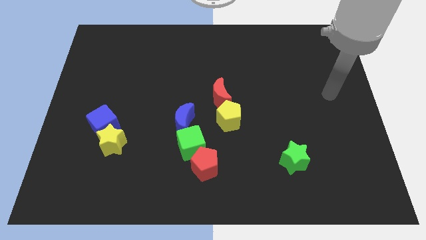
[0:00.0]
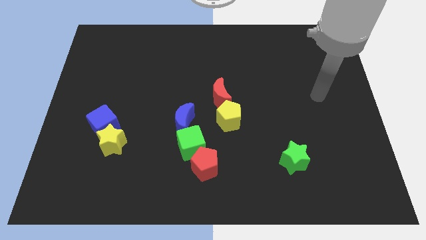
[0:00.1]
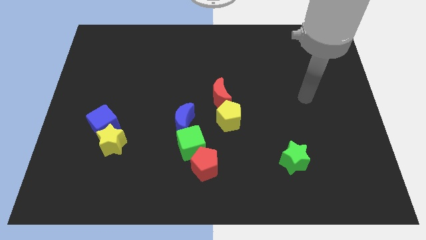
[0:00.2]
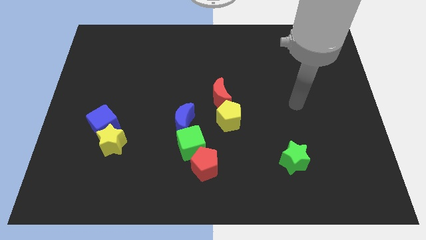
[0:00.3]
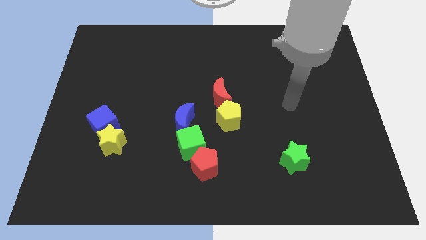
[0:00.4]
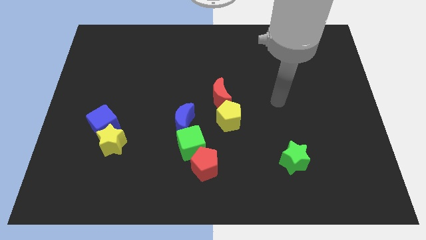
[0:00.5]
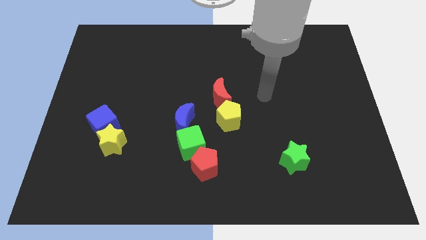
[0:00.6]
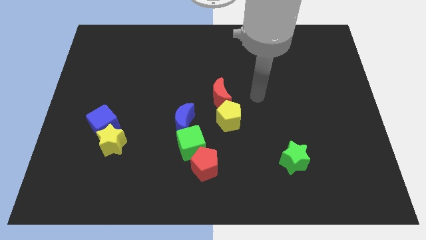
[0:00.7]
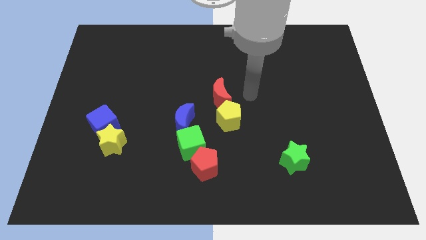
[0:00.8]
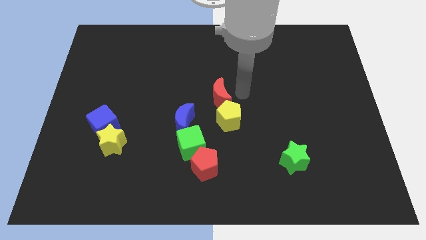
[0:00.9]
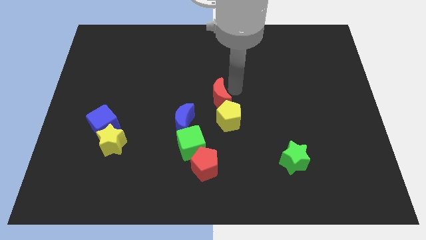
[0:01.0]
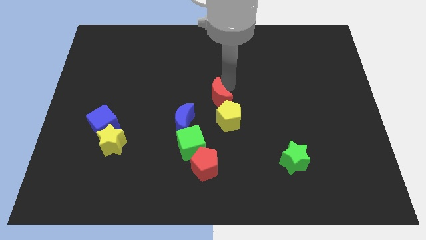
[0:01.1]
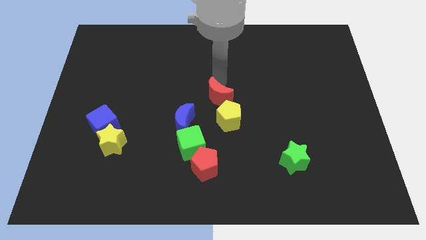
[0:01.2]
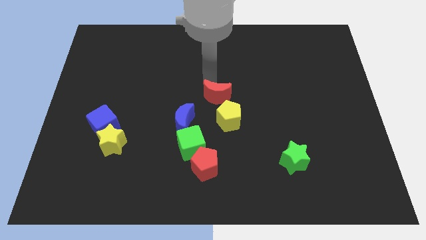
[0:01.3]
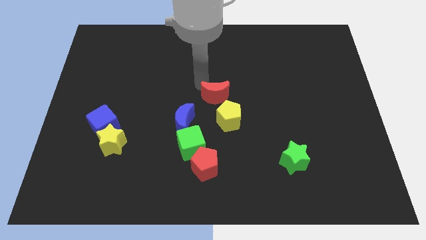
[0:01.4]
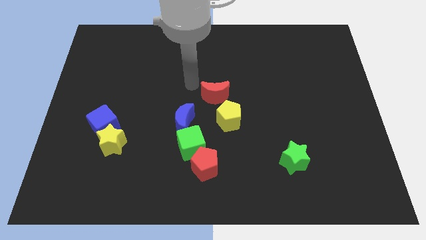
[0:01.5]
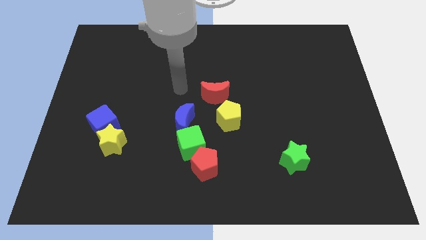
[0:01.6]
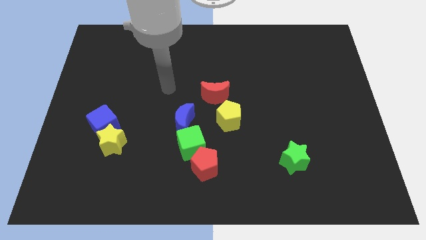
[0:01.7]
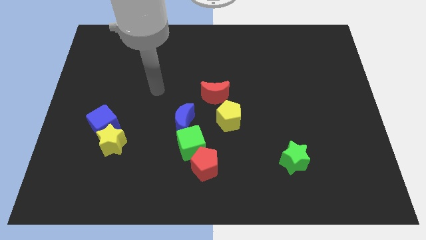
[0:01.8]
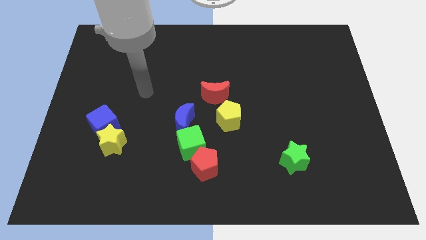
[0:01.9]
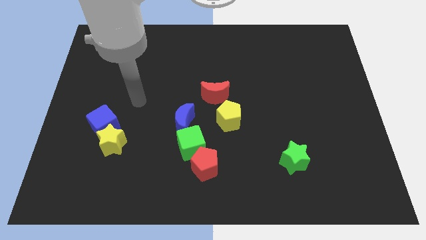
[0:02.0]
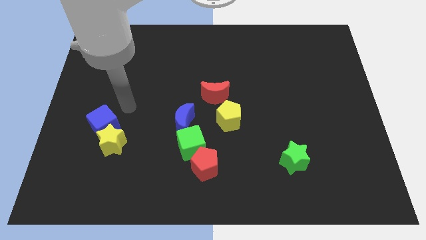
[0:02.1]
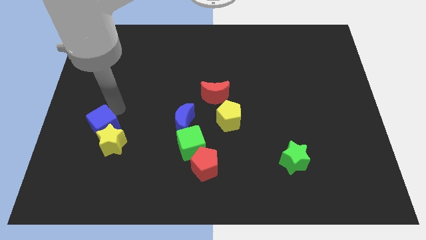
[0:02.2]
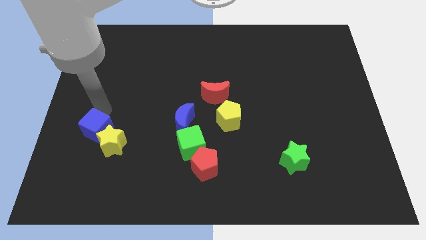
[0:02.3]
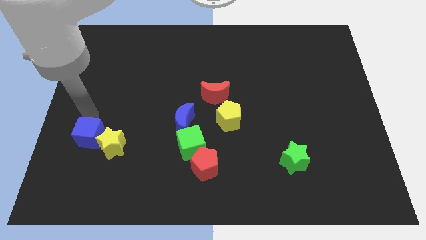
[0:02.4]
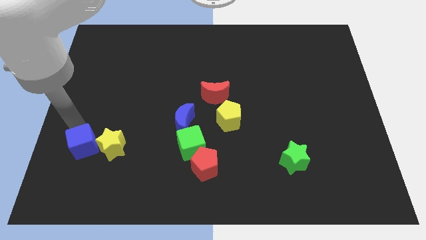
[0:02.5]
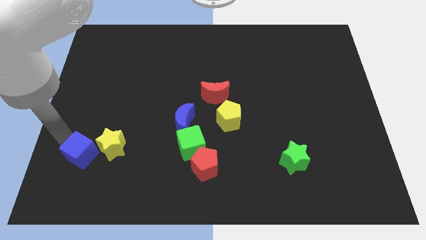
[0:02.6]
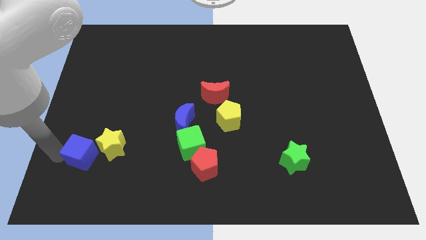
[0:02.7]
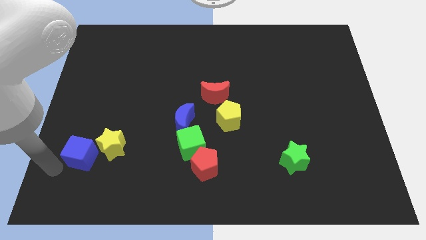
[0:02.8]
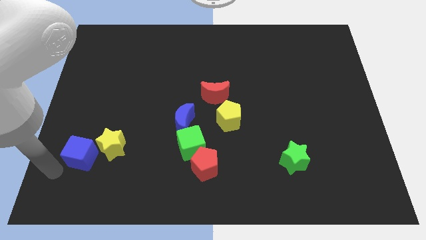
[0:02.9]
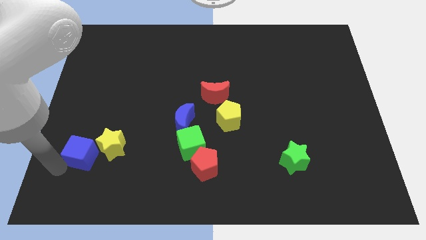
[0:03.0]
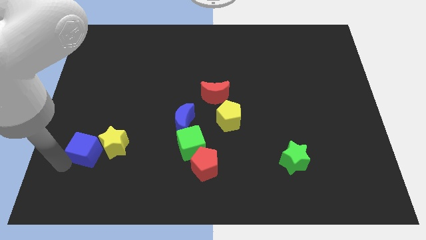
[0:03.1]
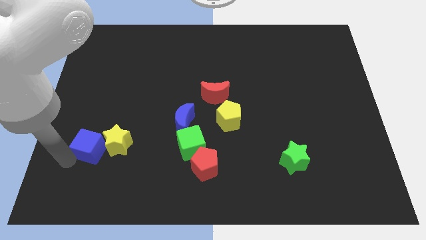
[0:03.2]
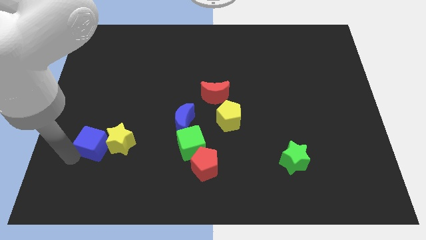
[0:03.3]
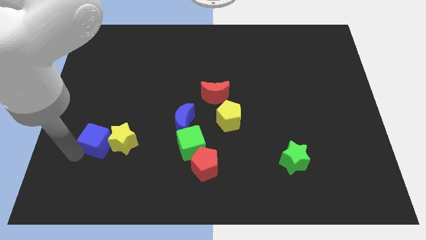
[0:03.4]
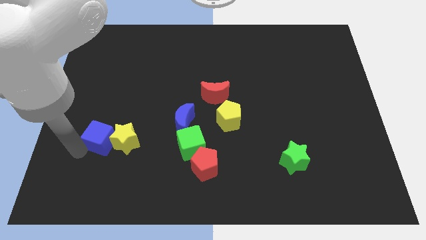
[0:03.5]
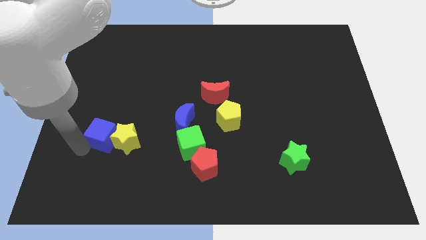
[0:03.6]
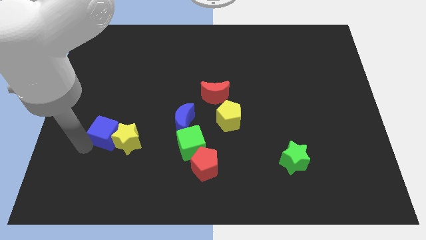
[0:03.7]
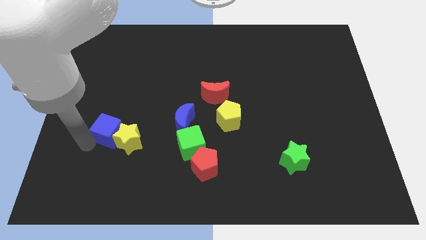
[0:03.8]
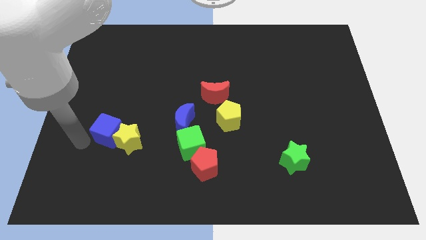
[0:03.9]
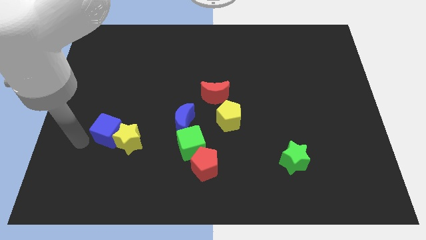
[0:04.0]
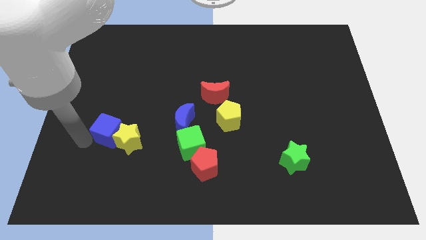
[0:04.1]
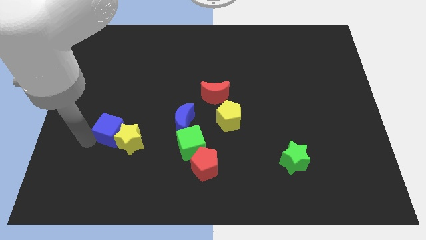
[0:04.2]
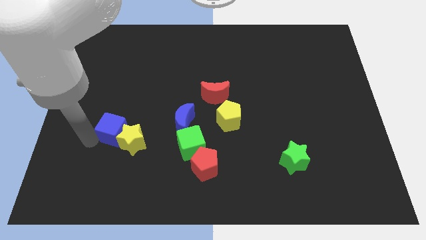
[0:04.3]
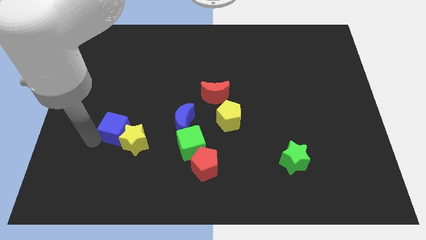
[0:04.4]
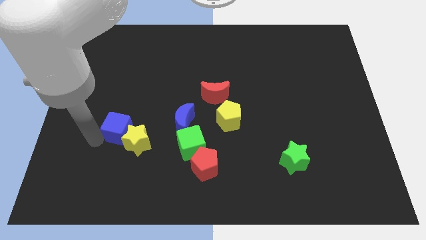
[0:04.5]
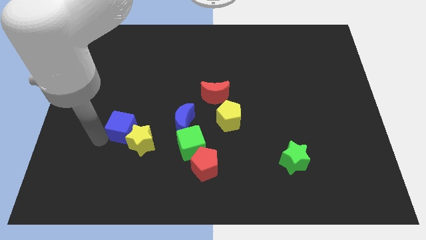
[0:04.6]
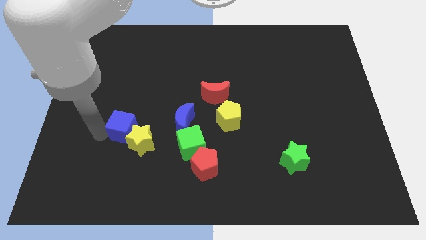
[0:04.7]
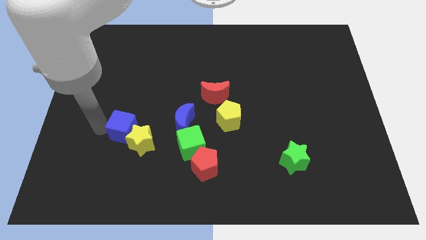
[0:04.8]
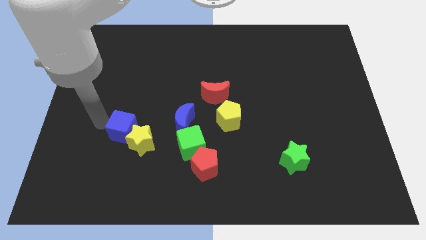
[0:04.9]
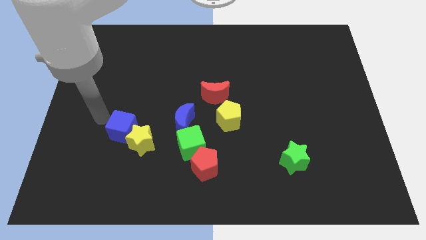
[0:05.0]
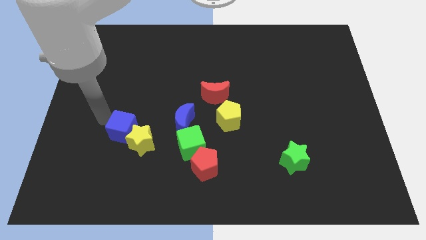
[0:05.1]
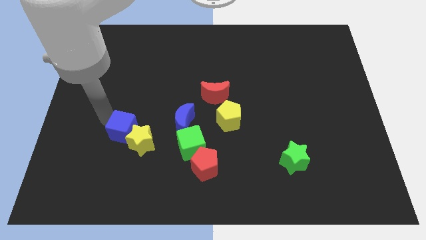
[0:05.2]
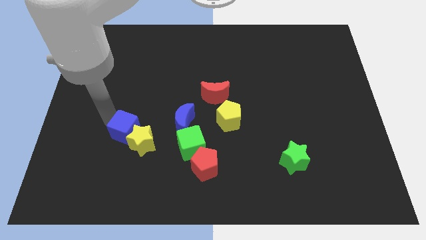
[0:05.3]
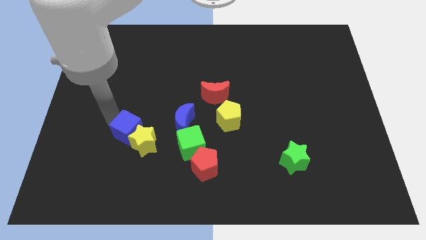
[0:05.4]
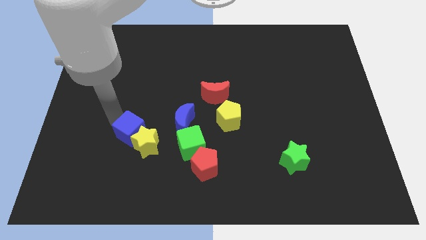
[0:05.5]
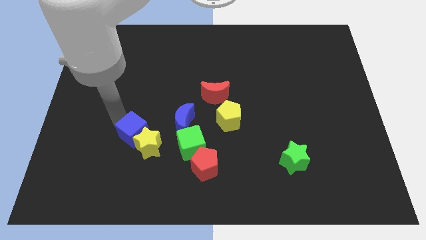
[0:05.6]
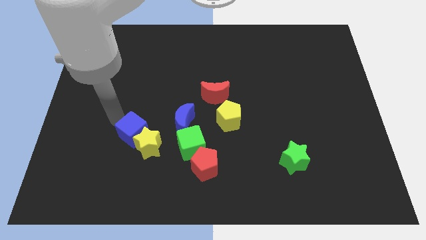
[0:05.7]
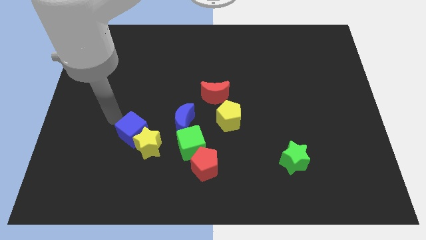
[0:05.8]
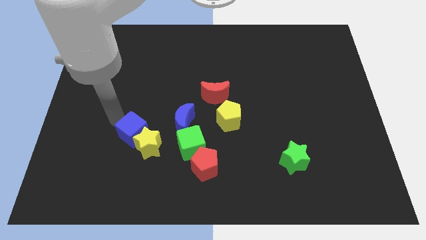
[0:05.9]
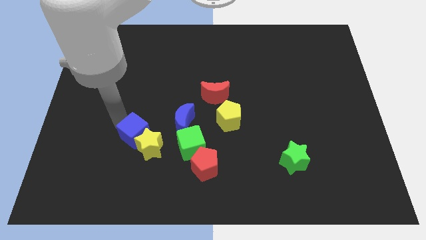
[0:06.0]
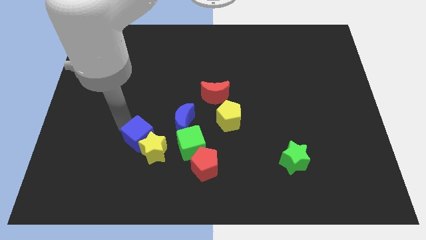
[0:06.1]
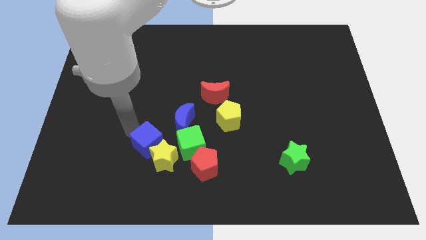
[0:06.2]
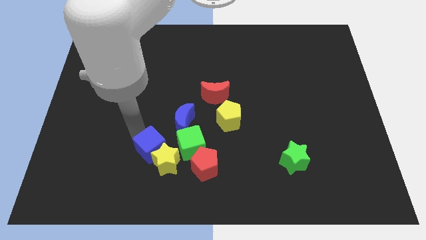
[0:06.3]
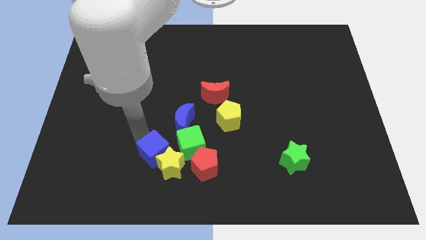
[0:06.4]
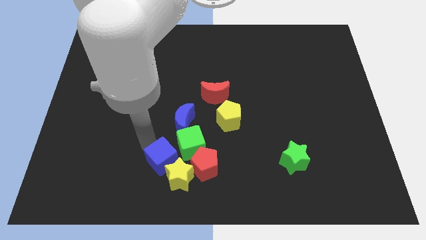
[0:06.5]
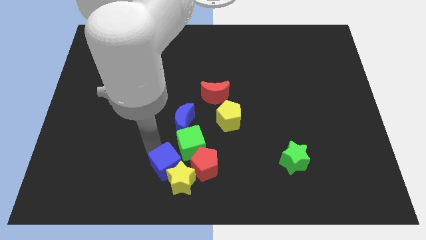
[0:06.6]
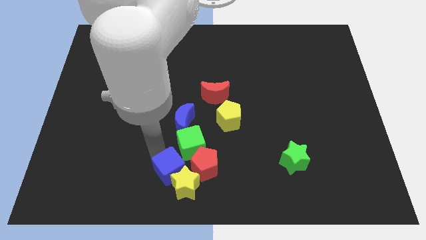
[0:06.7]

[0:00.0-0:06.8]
move the blue cube to the bottom
